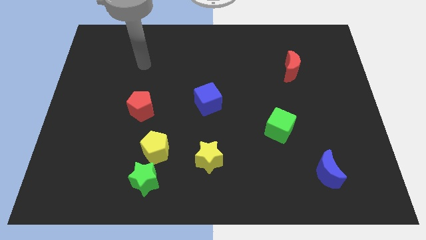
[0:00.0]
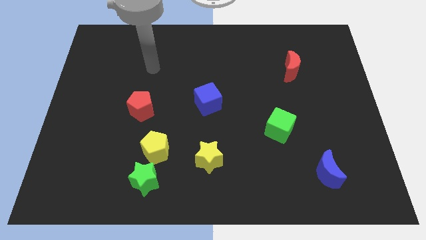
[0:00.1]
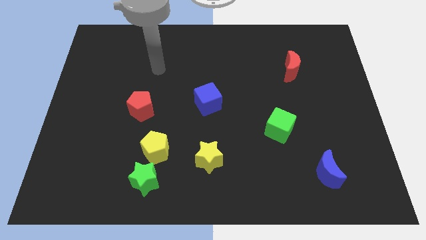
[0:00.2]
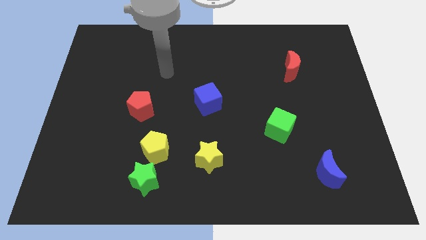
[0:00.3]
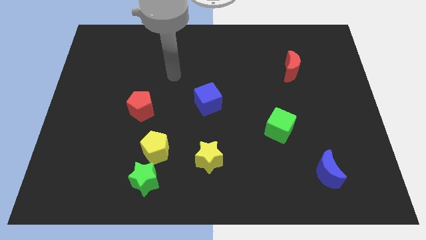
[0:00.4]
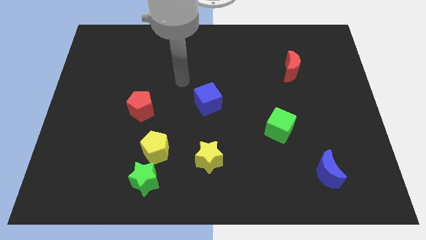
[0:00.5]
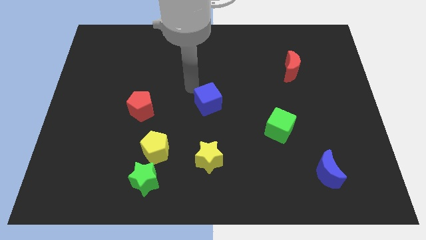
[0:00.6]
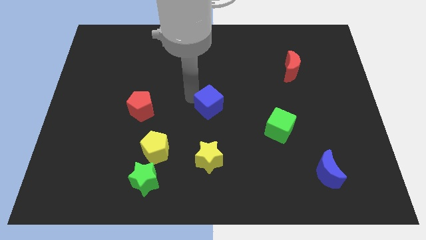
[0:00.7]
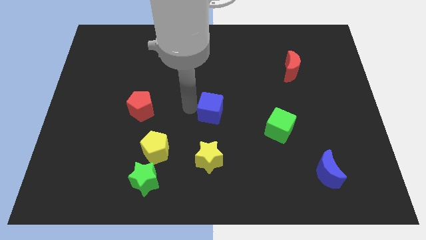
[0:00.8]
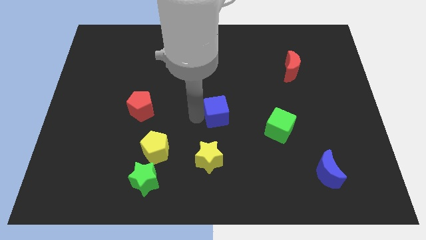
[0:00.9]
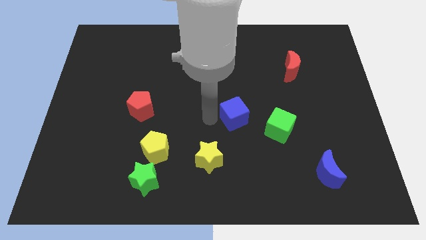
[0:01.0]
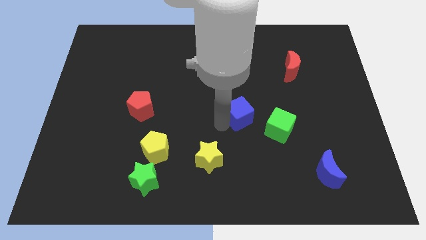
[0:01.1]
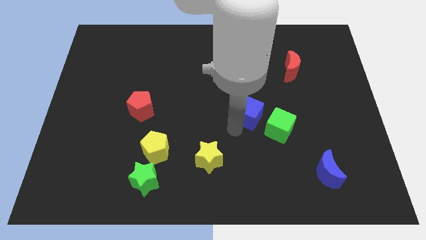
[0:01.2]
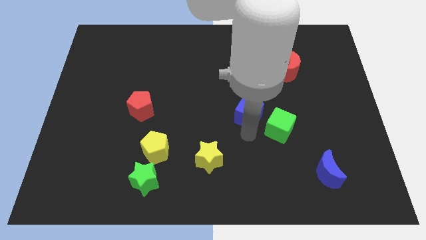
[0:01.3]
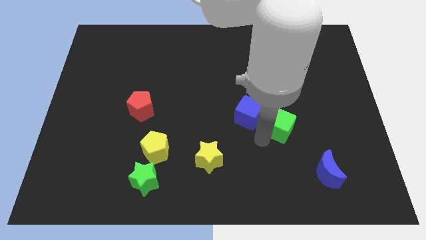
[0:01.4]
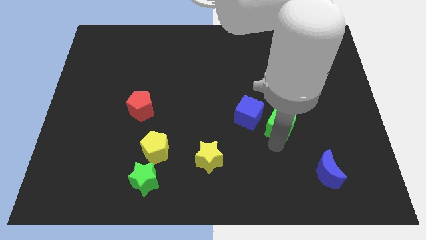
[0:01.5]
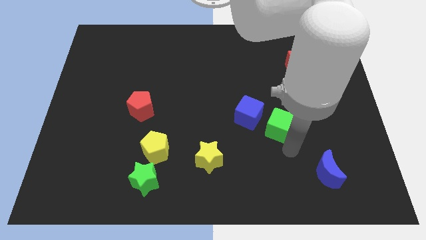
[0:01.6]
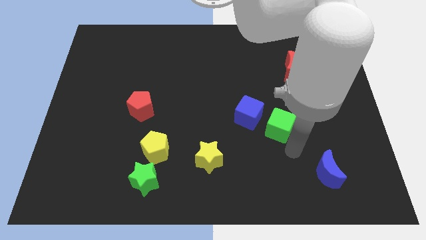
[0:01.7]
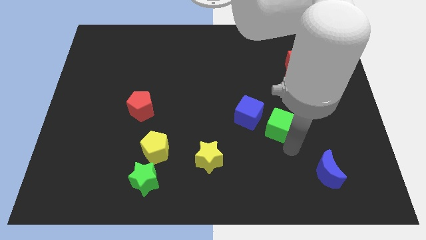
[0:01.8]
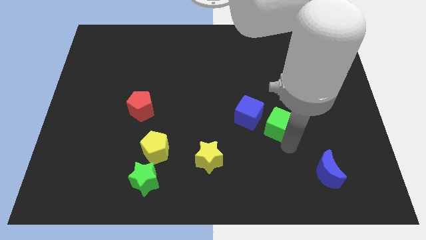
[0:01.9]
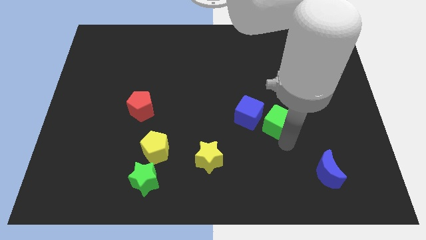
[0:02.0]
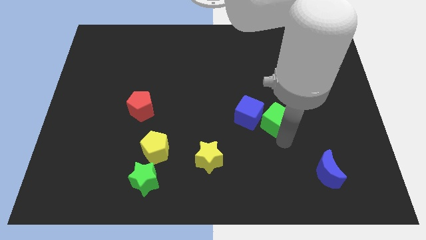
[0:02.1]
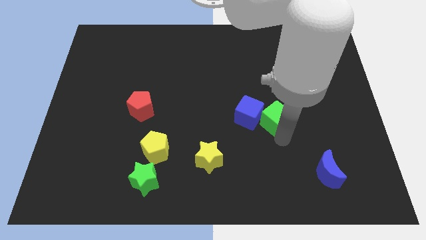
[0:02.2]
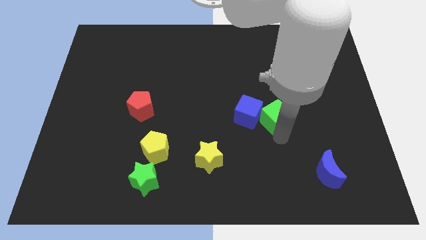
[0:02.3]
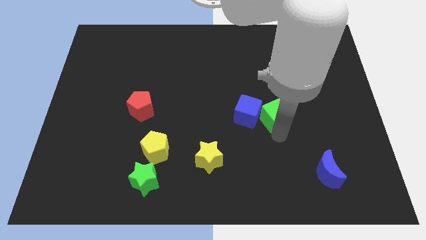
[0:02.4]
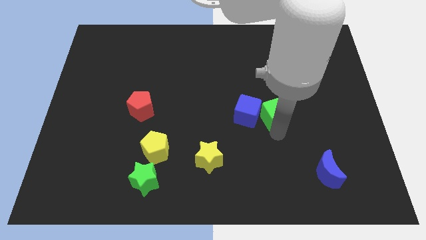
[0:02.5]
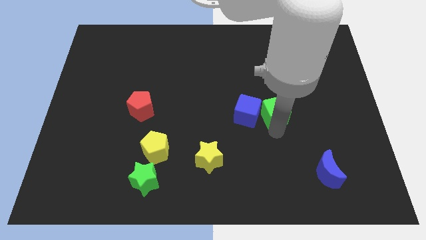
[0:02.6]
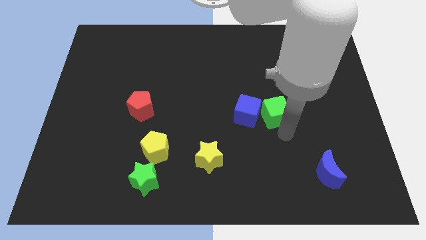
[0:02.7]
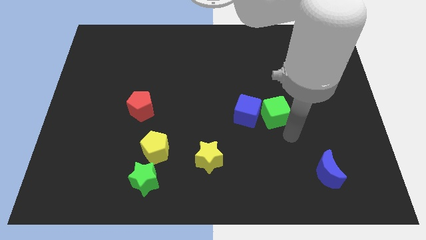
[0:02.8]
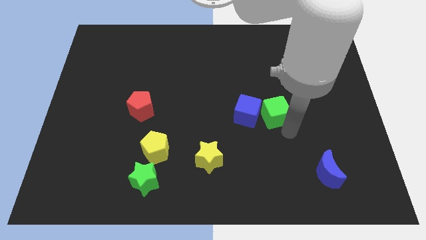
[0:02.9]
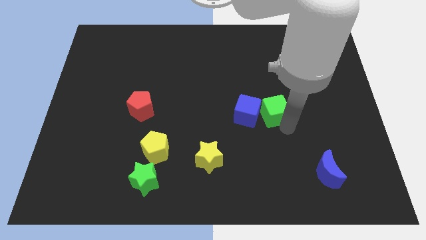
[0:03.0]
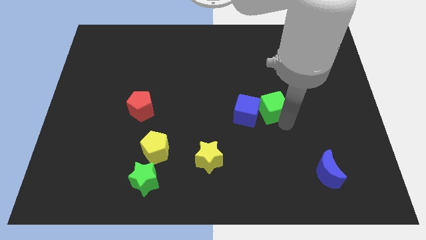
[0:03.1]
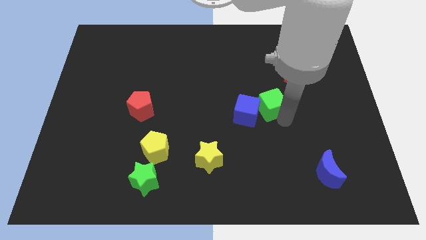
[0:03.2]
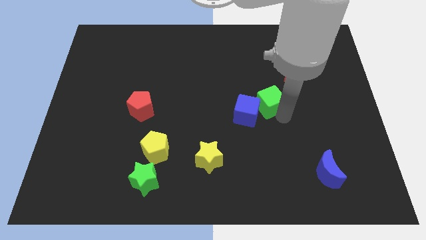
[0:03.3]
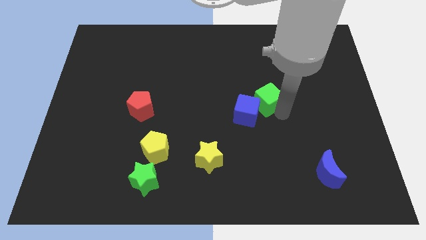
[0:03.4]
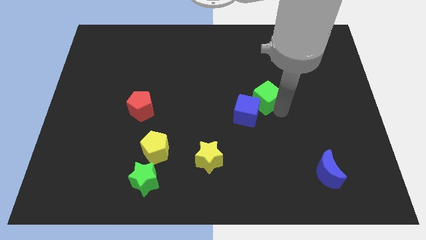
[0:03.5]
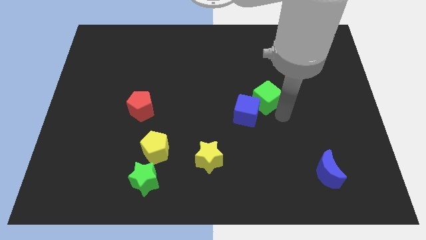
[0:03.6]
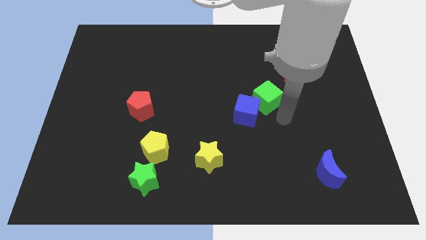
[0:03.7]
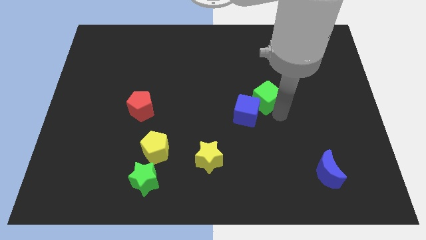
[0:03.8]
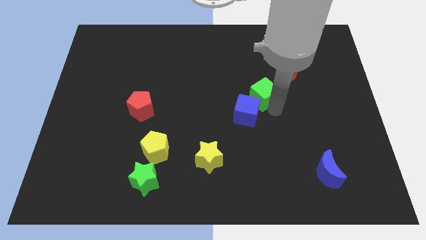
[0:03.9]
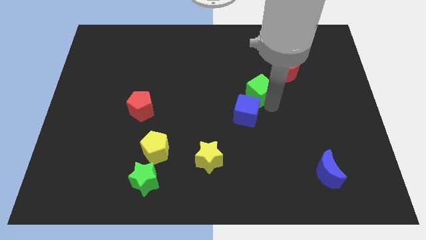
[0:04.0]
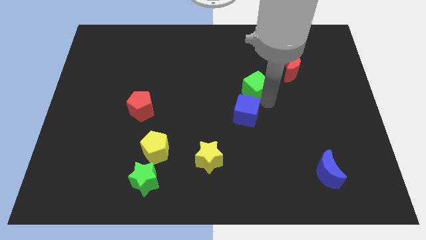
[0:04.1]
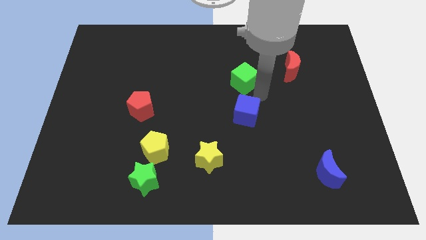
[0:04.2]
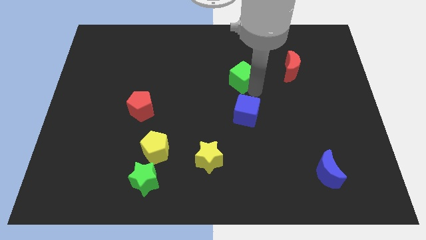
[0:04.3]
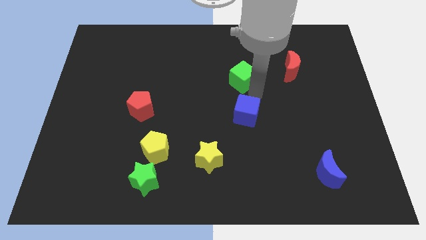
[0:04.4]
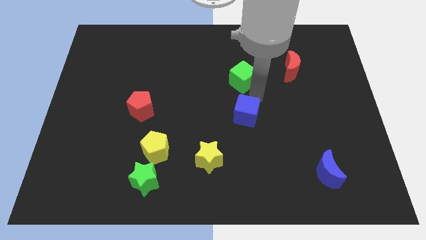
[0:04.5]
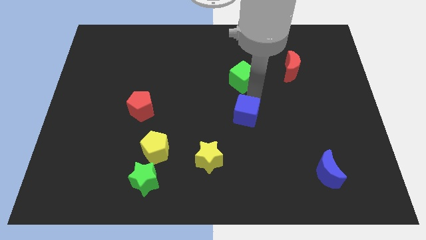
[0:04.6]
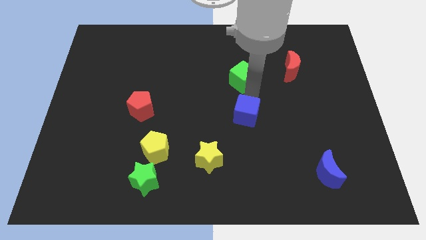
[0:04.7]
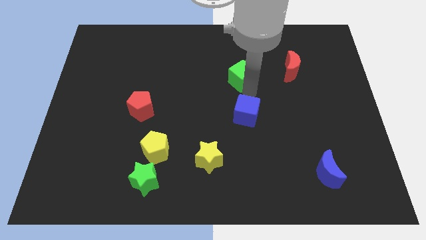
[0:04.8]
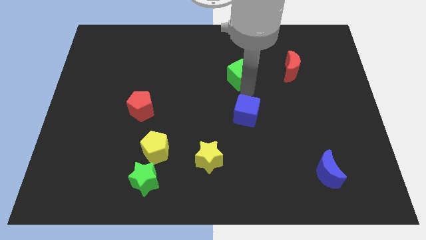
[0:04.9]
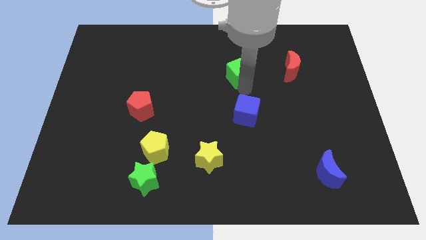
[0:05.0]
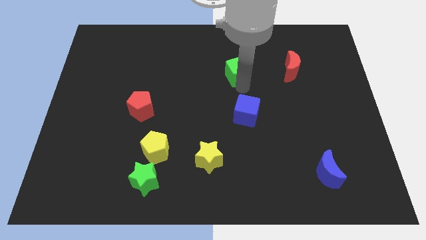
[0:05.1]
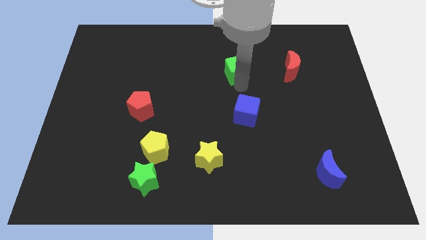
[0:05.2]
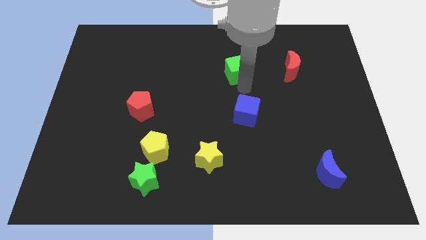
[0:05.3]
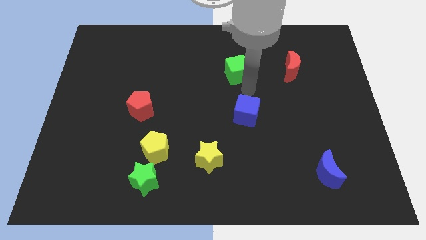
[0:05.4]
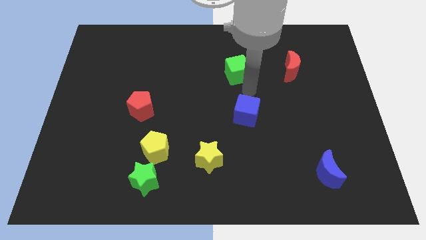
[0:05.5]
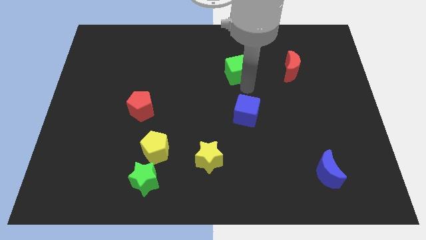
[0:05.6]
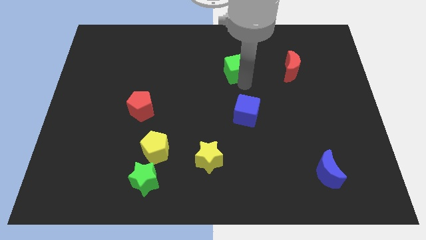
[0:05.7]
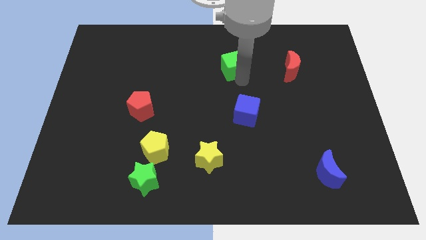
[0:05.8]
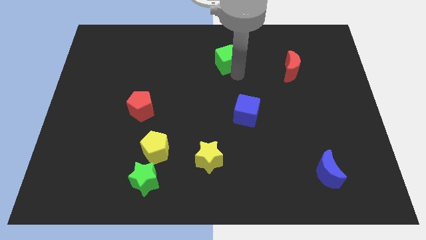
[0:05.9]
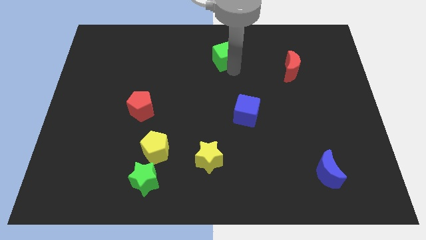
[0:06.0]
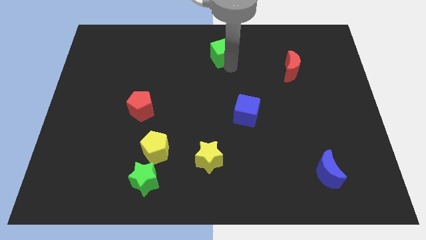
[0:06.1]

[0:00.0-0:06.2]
put the green cube to the top

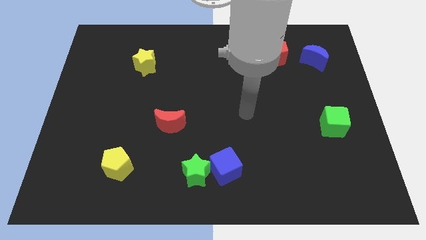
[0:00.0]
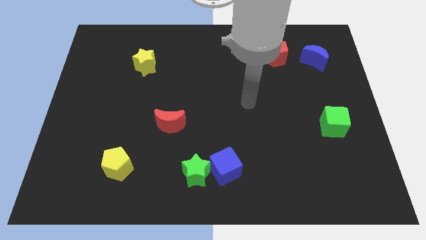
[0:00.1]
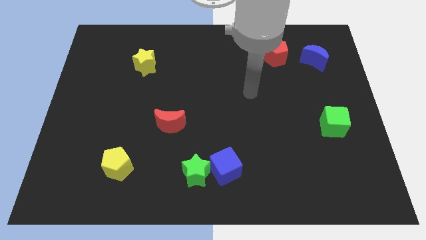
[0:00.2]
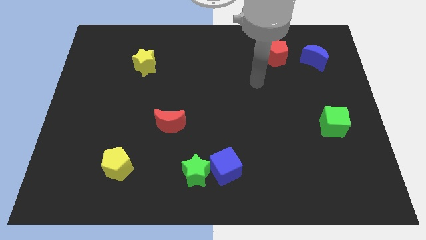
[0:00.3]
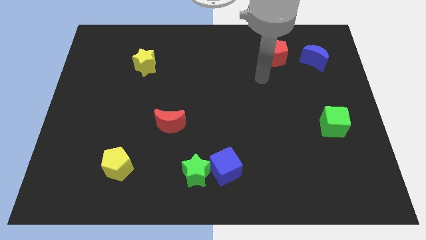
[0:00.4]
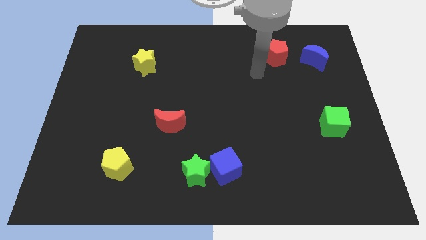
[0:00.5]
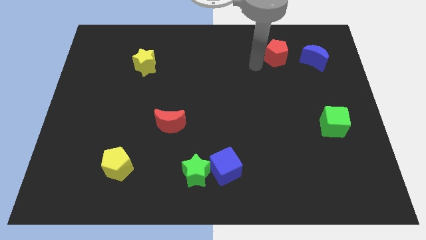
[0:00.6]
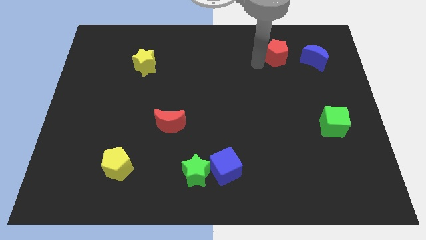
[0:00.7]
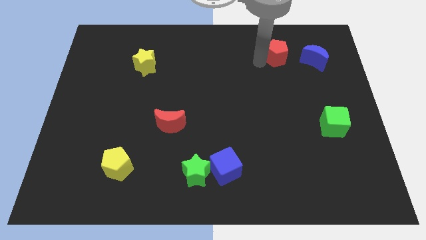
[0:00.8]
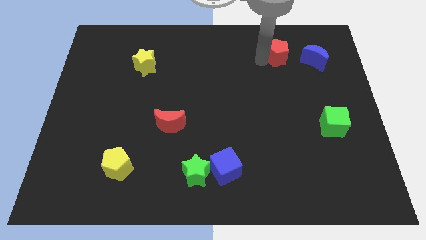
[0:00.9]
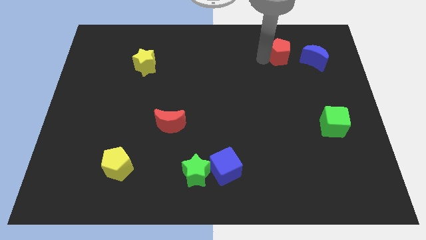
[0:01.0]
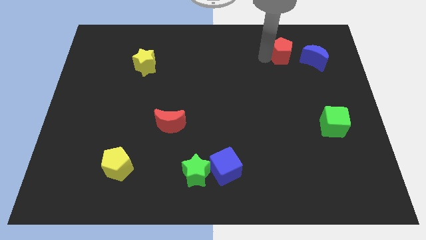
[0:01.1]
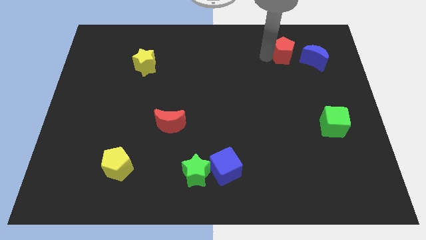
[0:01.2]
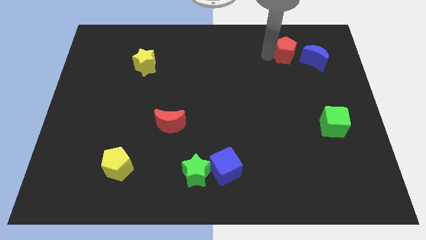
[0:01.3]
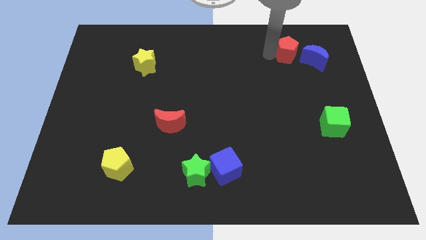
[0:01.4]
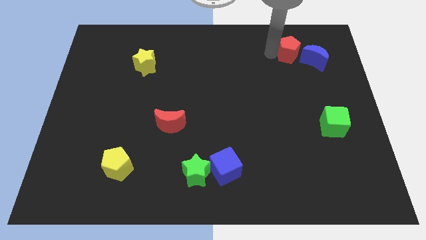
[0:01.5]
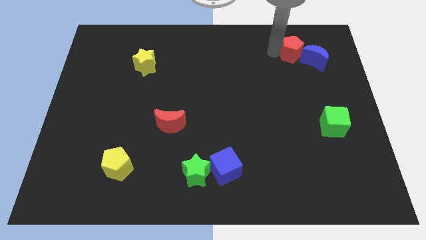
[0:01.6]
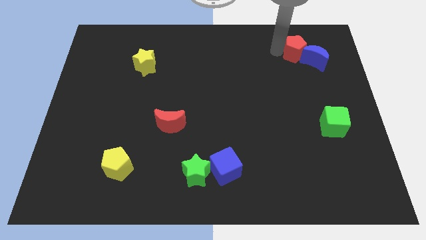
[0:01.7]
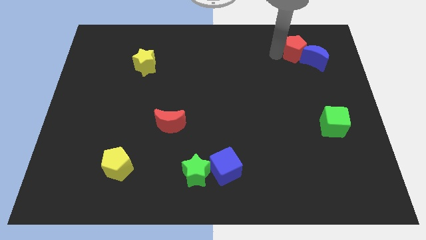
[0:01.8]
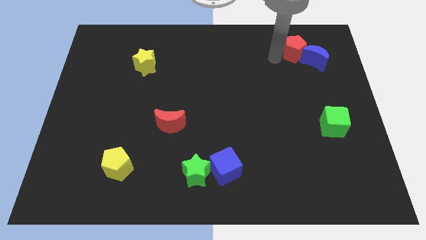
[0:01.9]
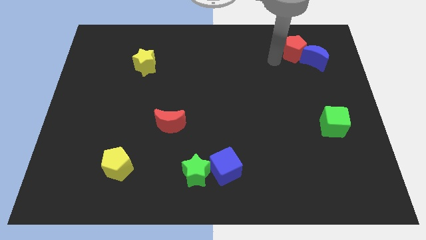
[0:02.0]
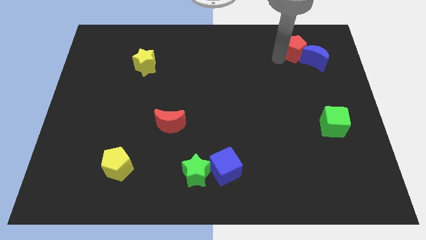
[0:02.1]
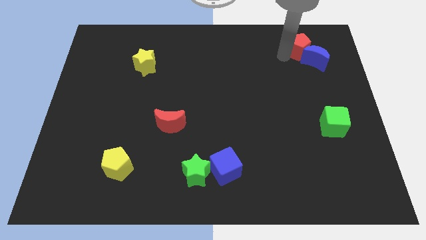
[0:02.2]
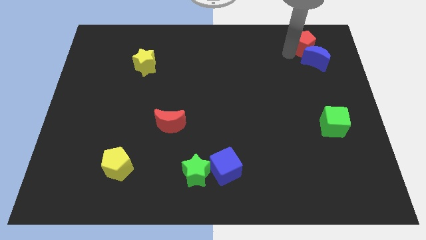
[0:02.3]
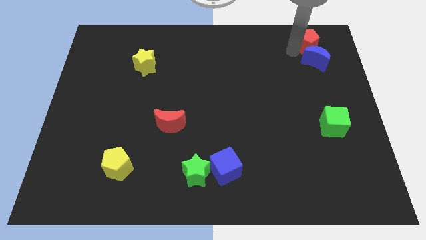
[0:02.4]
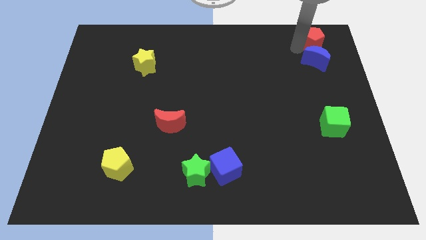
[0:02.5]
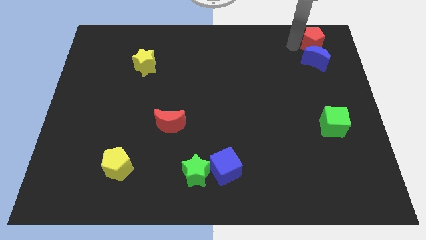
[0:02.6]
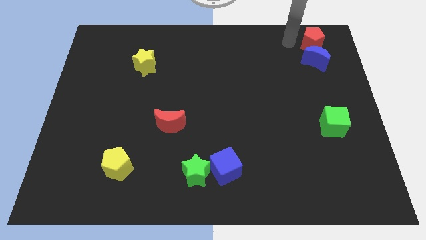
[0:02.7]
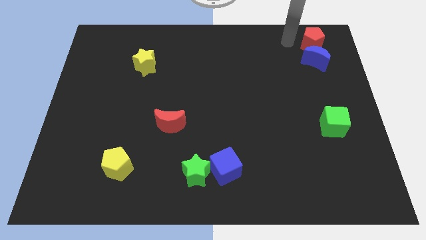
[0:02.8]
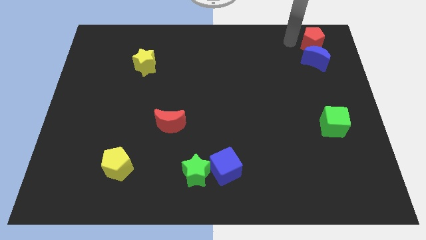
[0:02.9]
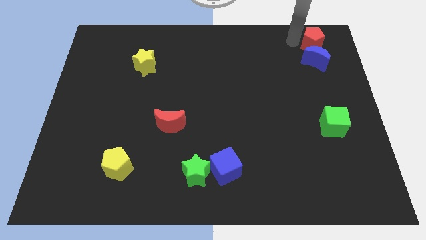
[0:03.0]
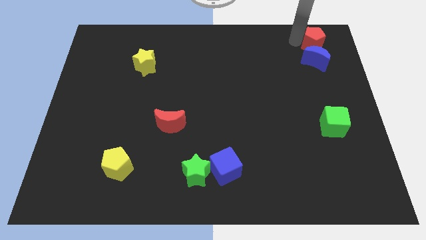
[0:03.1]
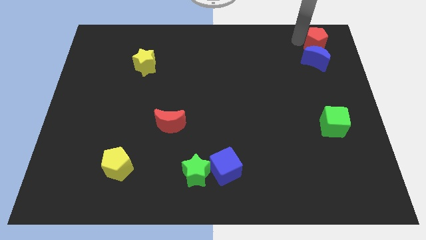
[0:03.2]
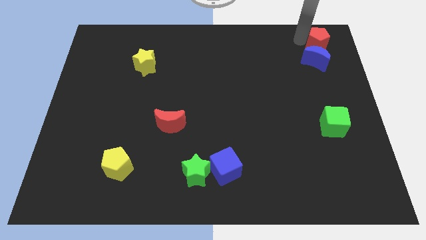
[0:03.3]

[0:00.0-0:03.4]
slide the red pentagon to the upper right corner
